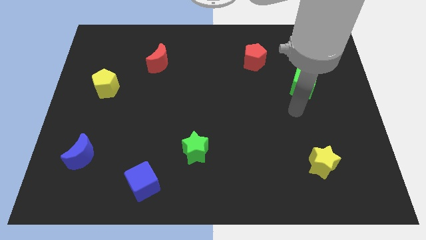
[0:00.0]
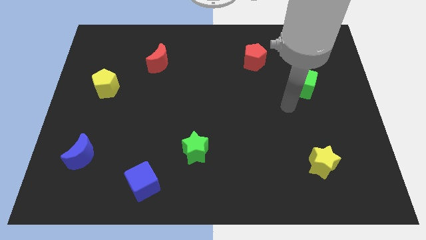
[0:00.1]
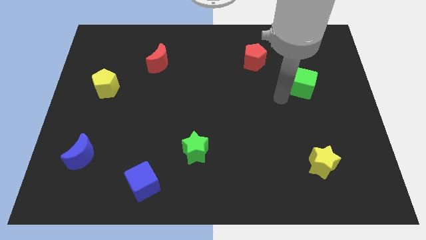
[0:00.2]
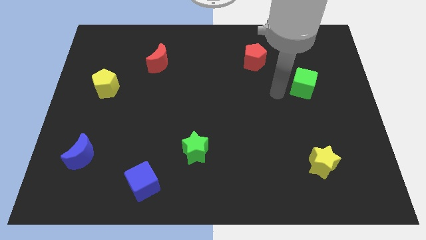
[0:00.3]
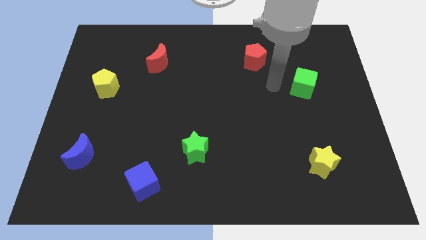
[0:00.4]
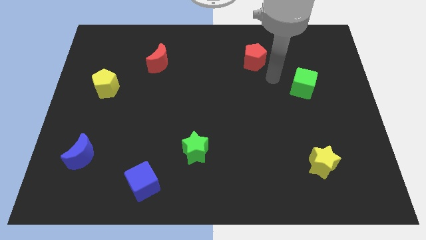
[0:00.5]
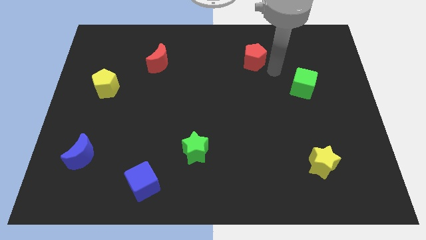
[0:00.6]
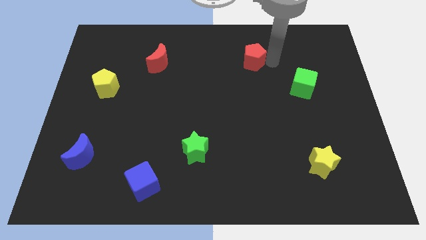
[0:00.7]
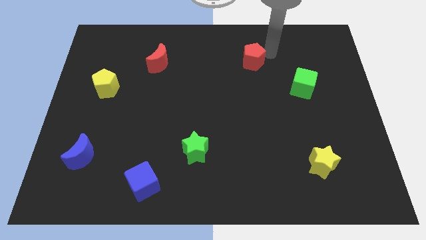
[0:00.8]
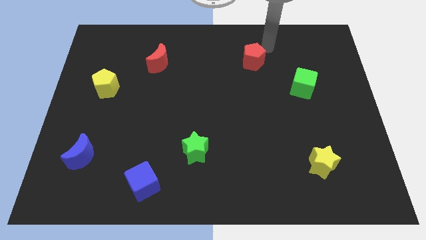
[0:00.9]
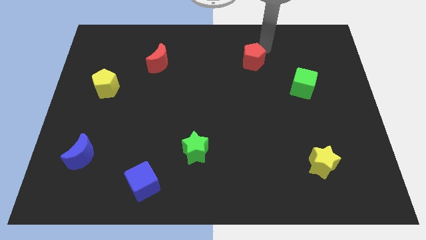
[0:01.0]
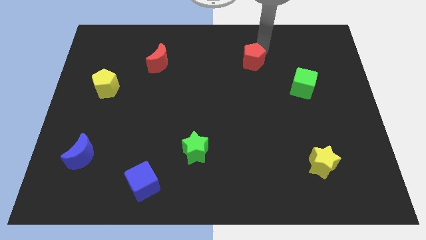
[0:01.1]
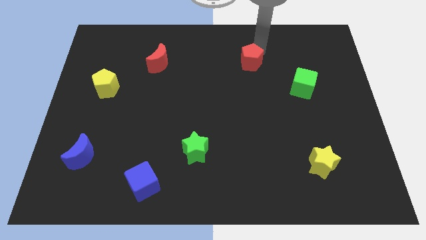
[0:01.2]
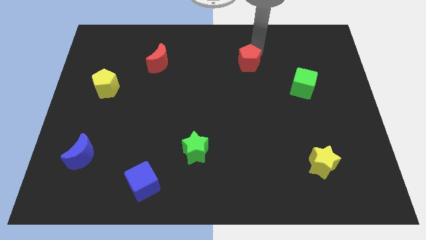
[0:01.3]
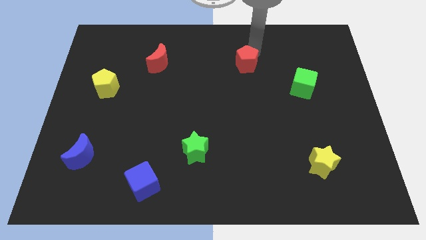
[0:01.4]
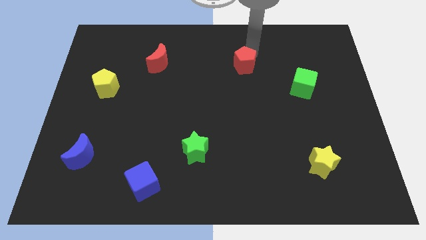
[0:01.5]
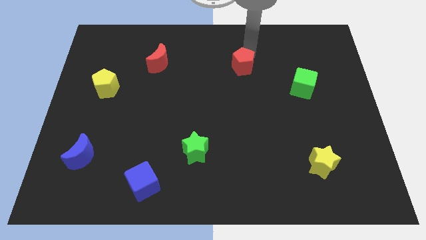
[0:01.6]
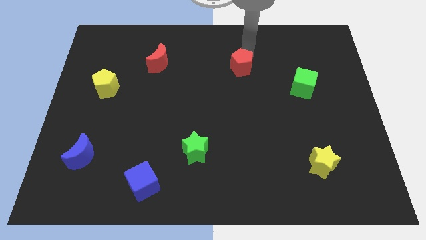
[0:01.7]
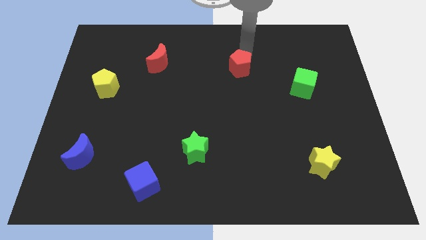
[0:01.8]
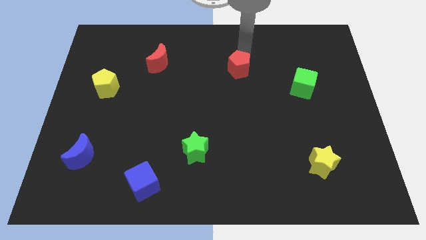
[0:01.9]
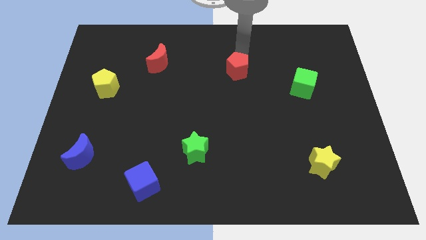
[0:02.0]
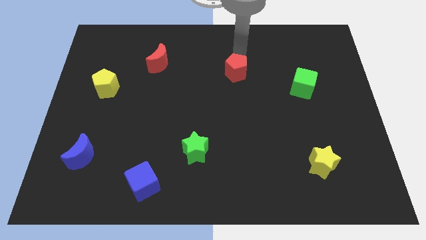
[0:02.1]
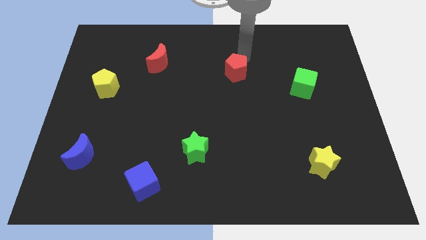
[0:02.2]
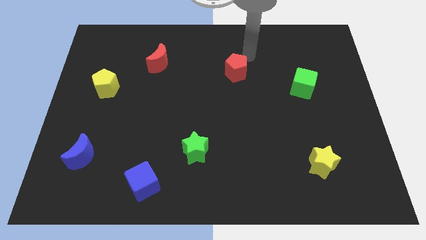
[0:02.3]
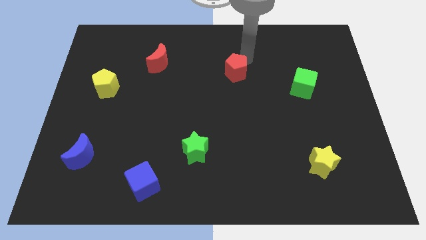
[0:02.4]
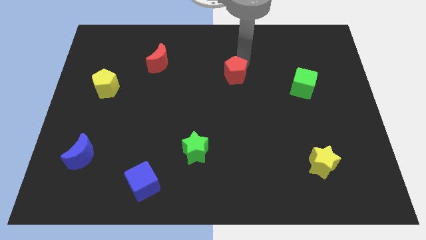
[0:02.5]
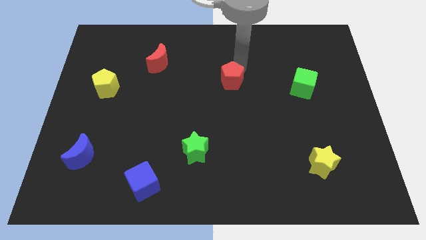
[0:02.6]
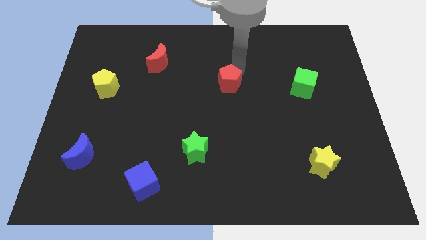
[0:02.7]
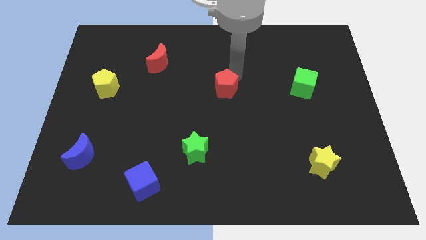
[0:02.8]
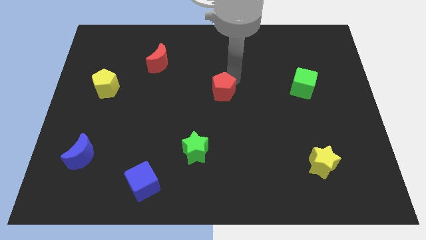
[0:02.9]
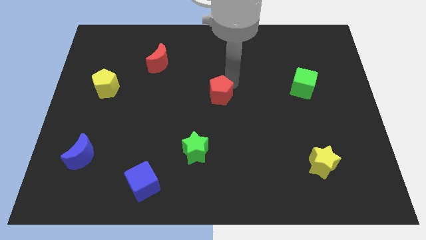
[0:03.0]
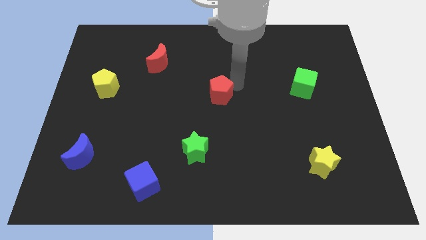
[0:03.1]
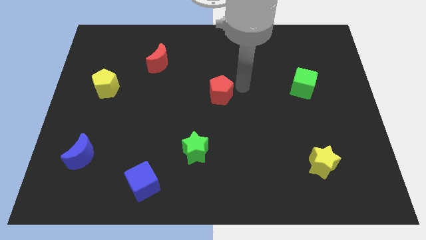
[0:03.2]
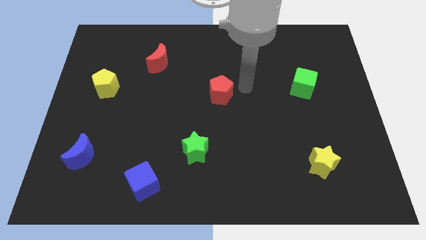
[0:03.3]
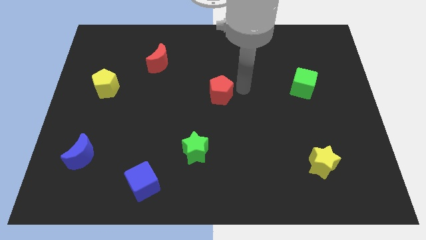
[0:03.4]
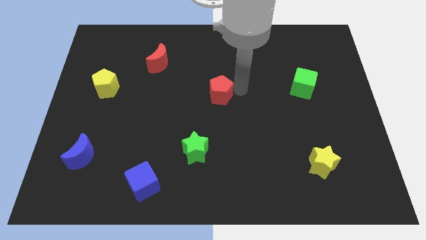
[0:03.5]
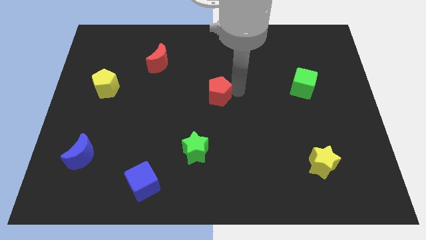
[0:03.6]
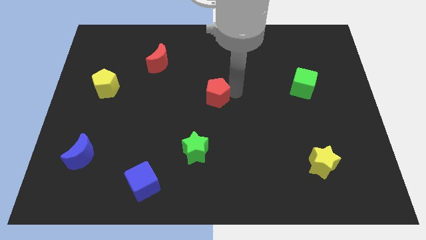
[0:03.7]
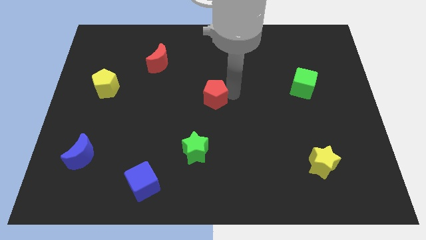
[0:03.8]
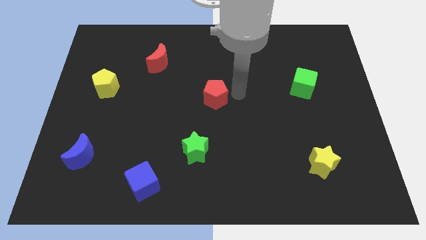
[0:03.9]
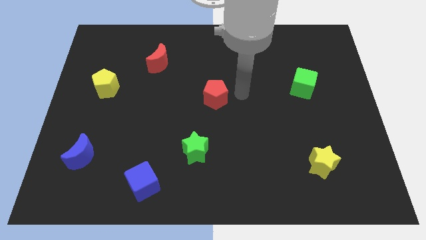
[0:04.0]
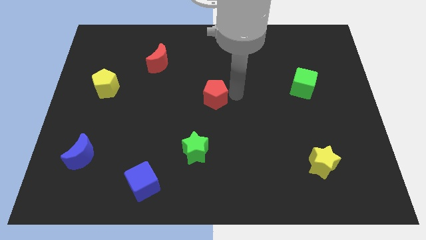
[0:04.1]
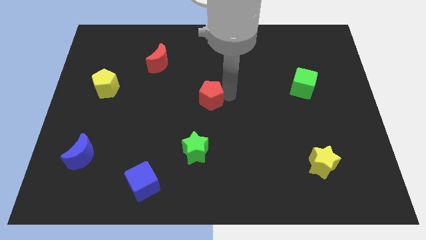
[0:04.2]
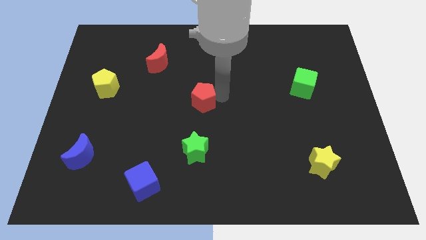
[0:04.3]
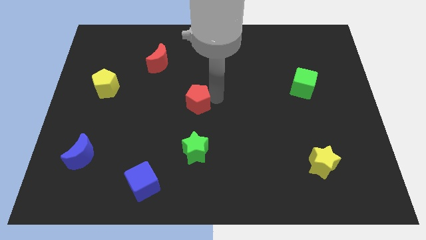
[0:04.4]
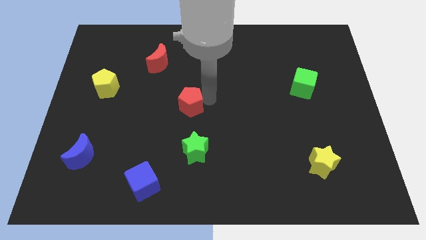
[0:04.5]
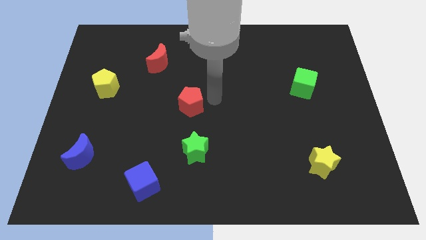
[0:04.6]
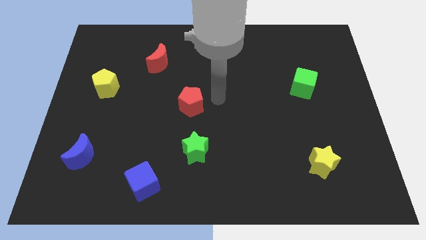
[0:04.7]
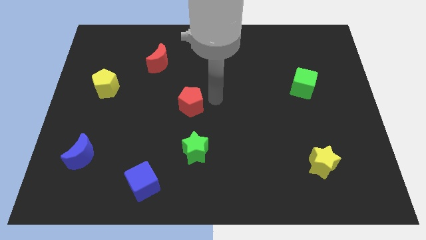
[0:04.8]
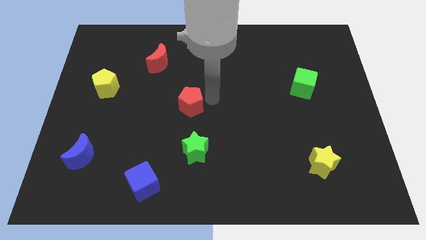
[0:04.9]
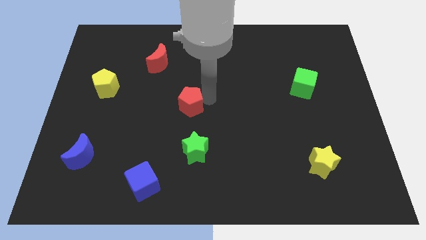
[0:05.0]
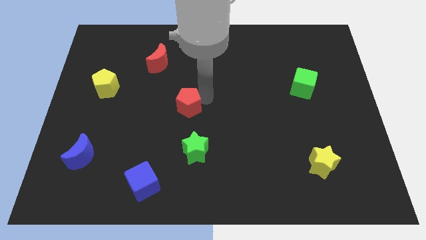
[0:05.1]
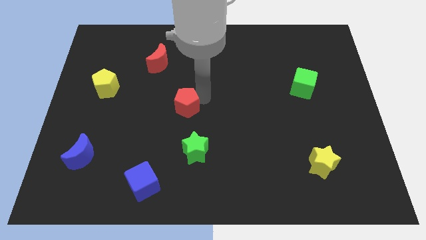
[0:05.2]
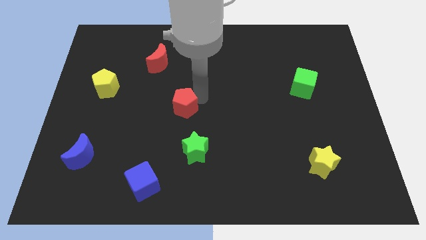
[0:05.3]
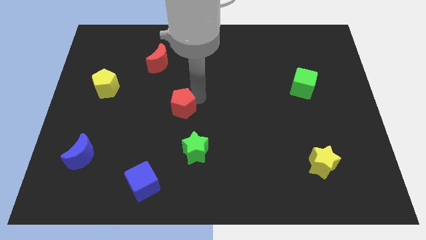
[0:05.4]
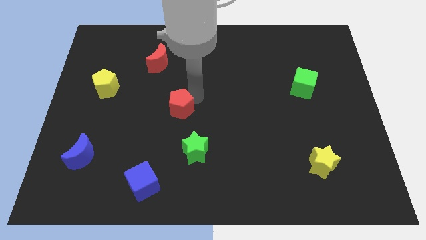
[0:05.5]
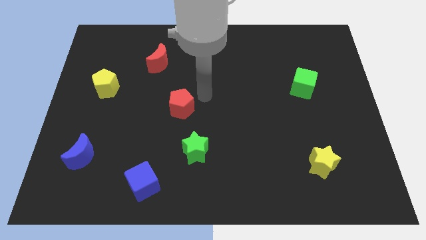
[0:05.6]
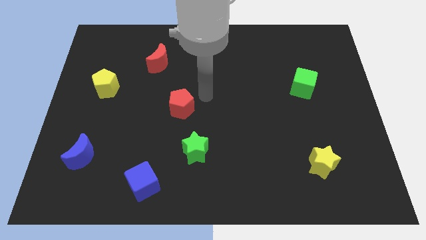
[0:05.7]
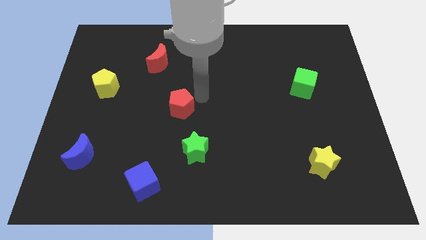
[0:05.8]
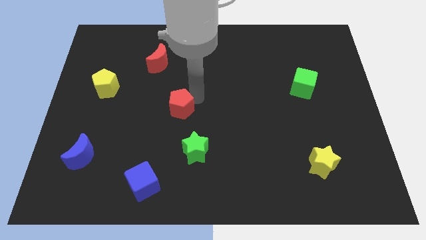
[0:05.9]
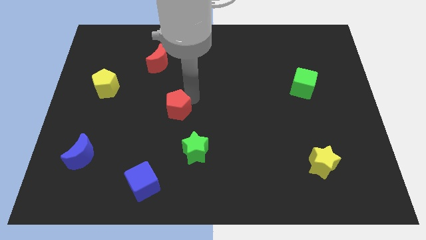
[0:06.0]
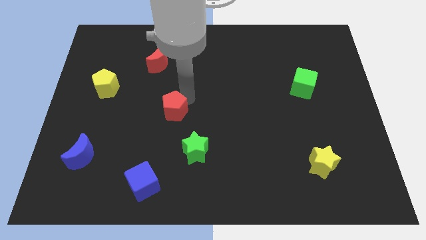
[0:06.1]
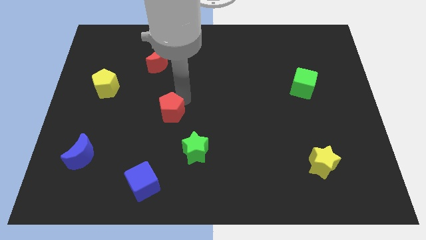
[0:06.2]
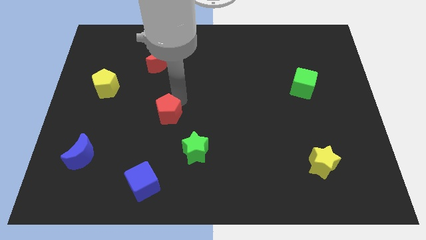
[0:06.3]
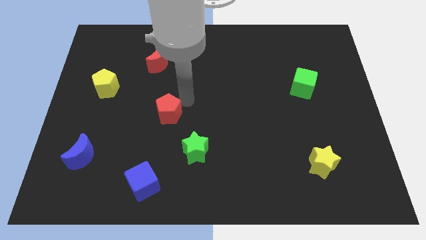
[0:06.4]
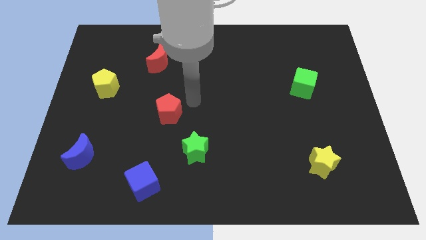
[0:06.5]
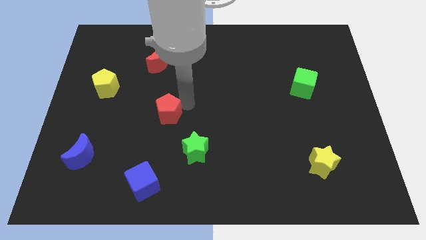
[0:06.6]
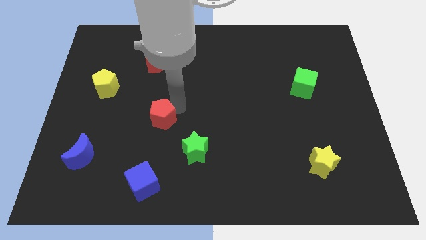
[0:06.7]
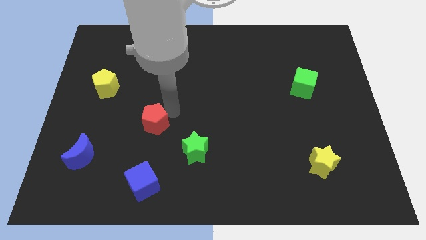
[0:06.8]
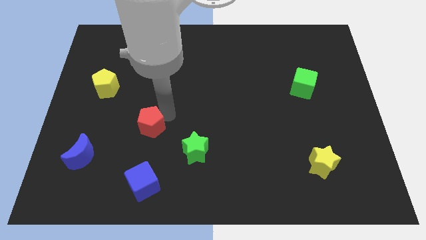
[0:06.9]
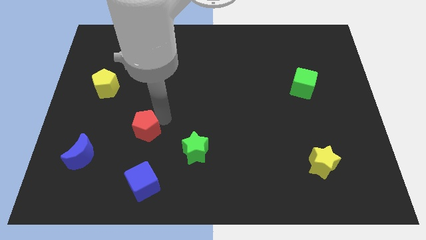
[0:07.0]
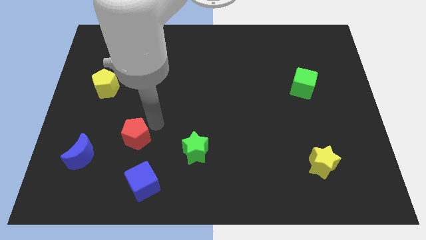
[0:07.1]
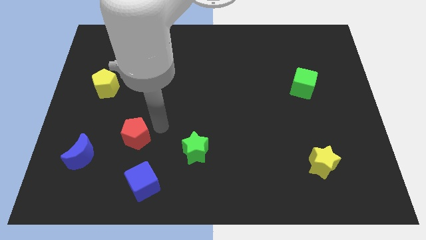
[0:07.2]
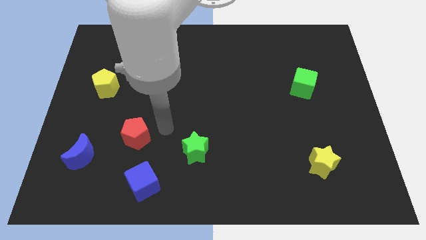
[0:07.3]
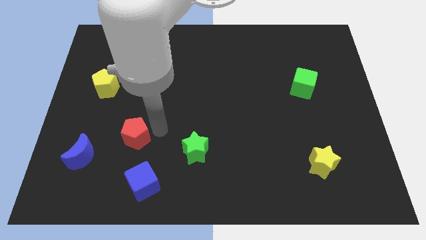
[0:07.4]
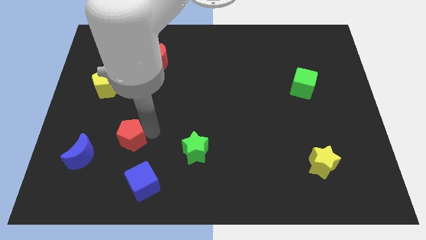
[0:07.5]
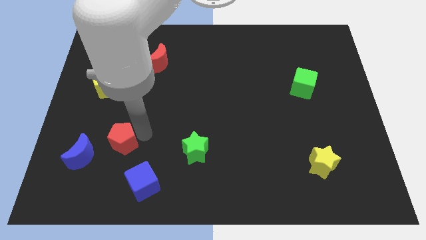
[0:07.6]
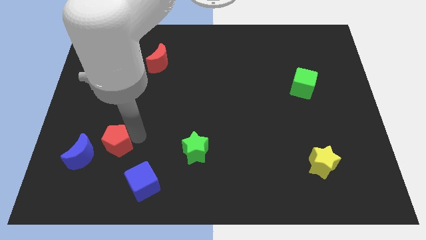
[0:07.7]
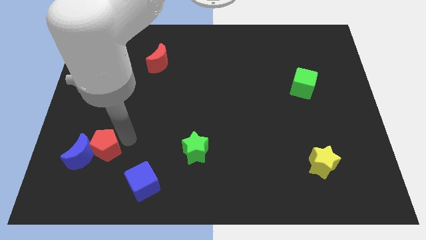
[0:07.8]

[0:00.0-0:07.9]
slide the red pentagon next to the blue moon
